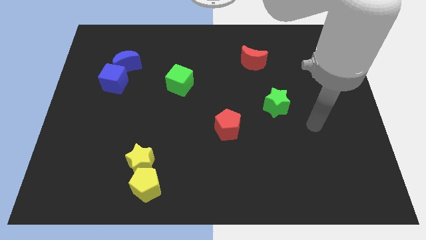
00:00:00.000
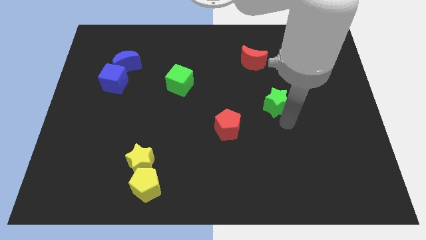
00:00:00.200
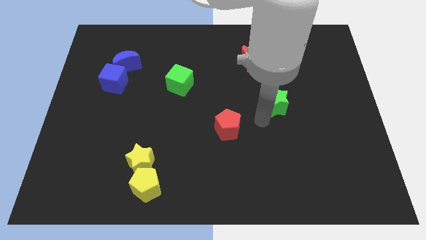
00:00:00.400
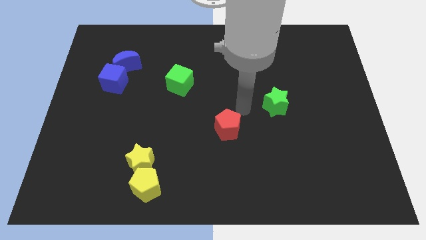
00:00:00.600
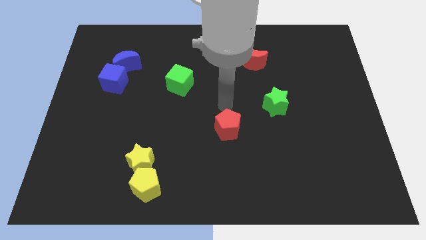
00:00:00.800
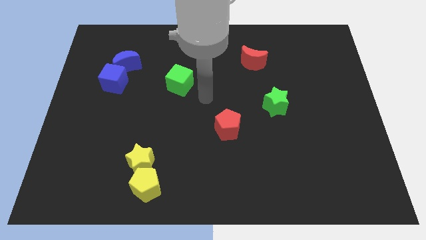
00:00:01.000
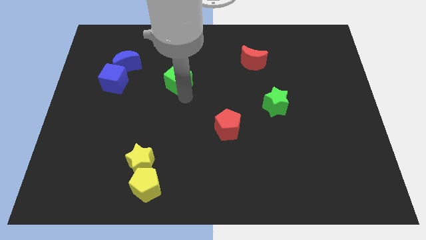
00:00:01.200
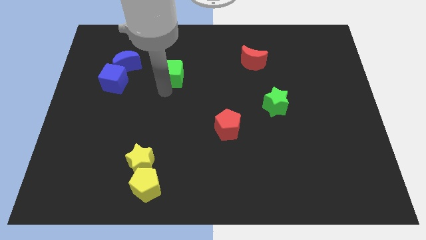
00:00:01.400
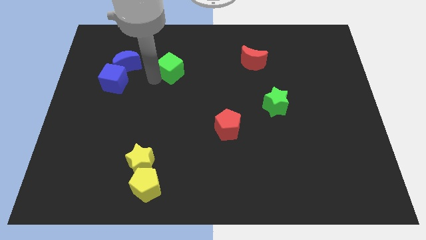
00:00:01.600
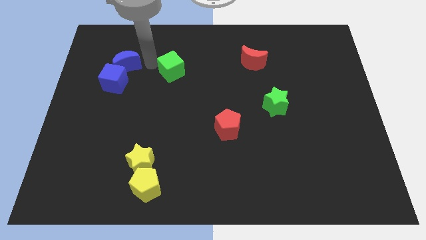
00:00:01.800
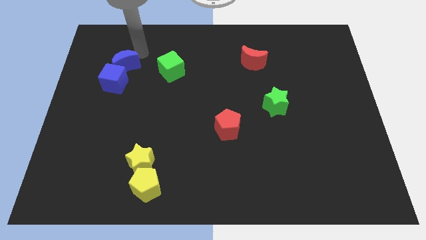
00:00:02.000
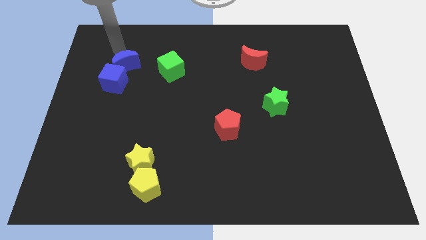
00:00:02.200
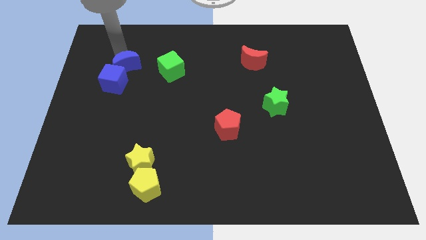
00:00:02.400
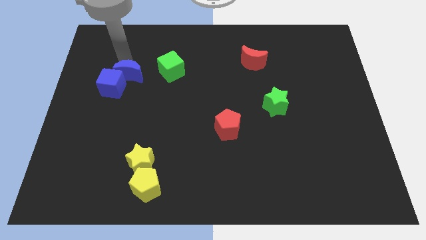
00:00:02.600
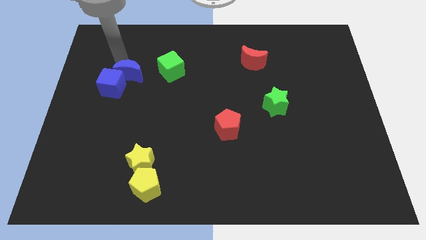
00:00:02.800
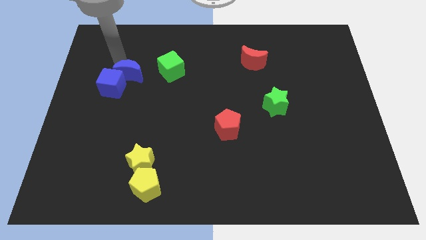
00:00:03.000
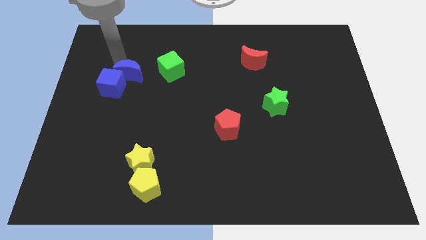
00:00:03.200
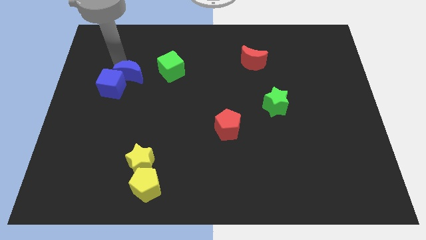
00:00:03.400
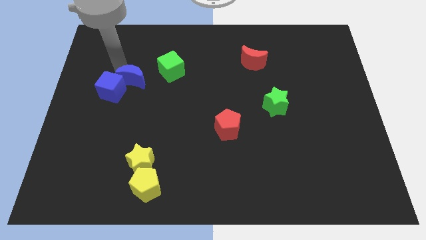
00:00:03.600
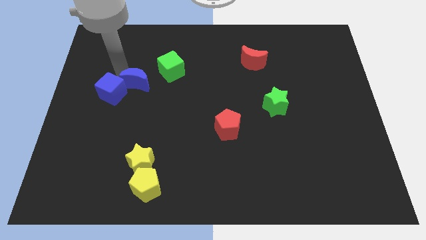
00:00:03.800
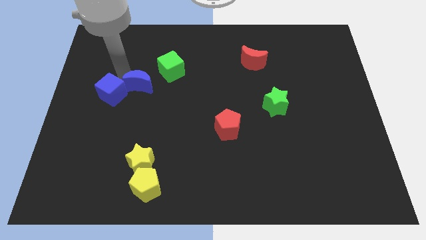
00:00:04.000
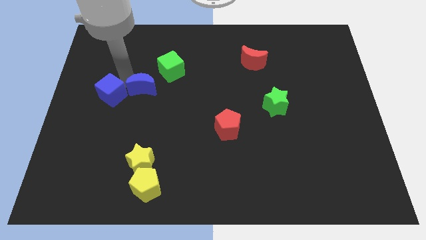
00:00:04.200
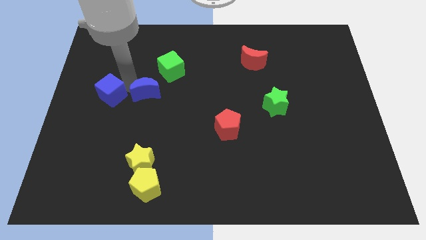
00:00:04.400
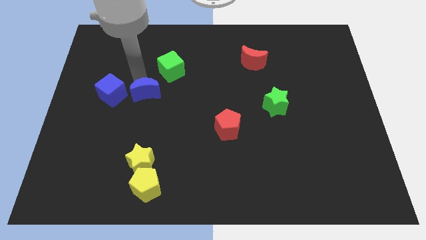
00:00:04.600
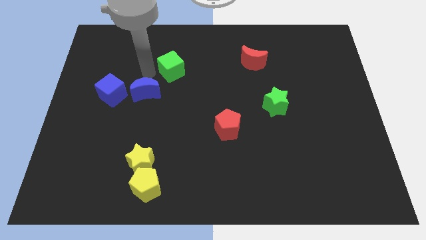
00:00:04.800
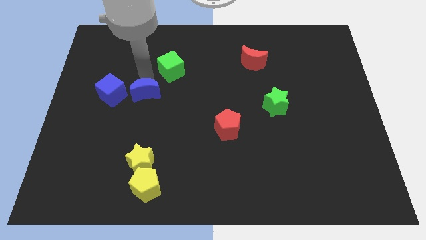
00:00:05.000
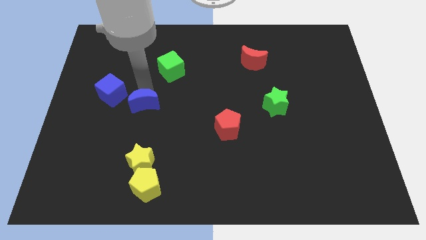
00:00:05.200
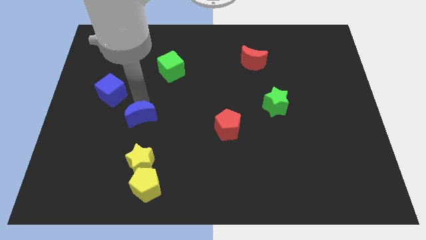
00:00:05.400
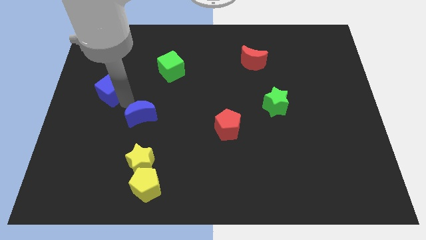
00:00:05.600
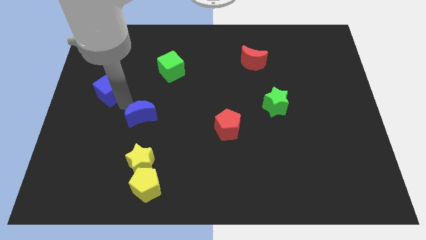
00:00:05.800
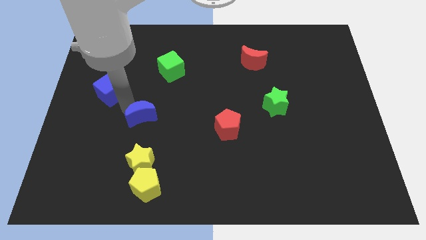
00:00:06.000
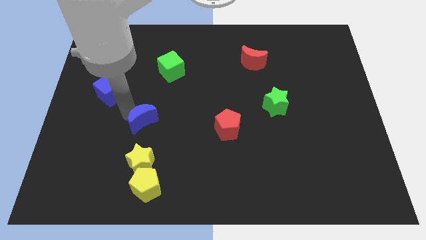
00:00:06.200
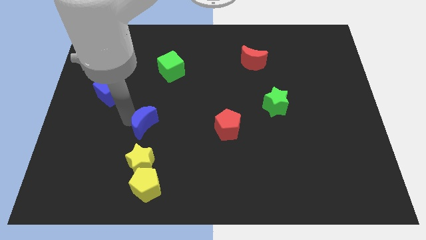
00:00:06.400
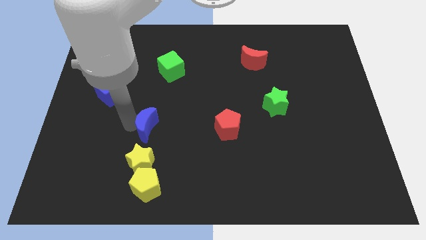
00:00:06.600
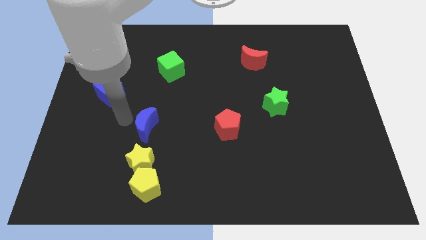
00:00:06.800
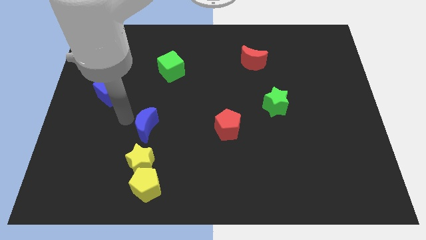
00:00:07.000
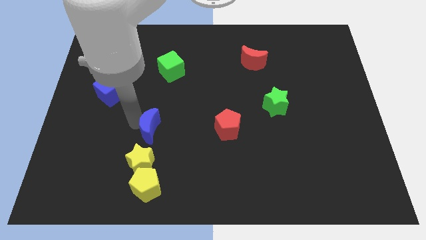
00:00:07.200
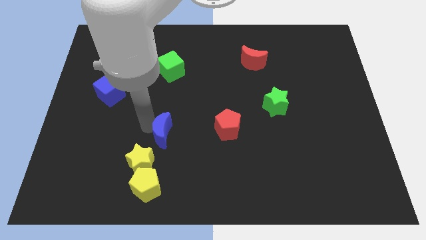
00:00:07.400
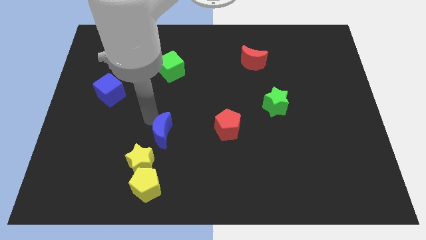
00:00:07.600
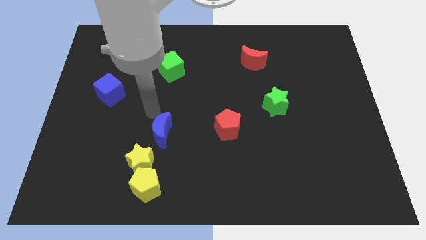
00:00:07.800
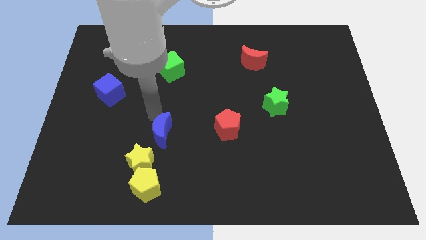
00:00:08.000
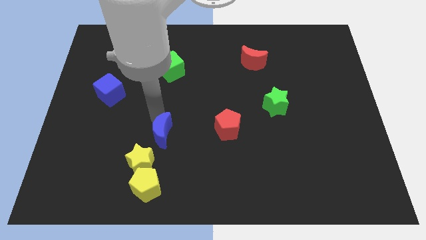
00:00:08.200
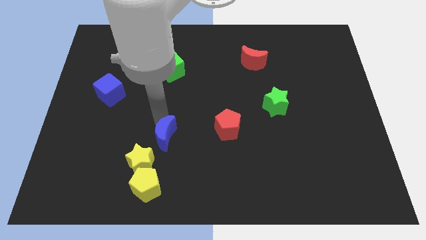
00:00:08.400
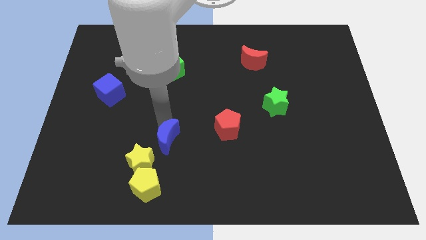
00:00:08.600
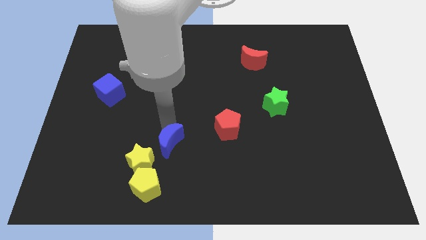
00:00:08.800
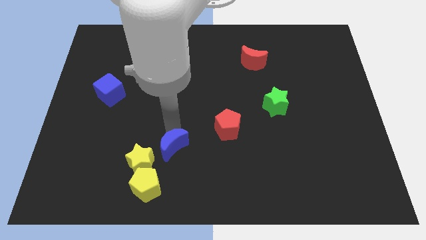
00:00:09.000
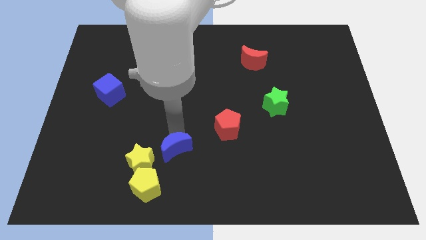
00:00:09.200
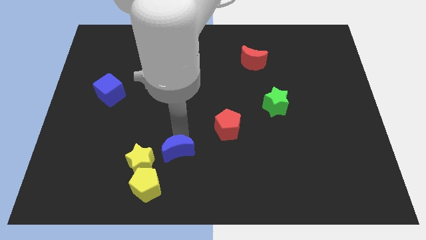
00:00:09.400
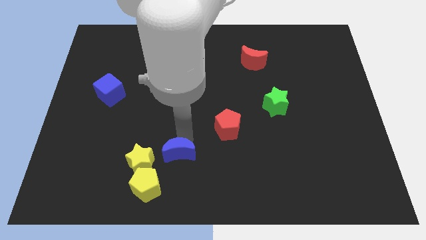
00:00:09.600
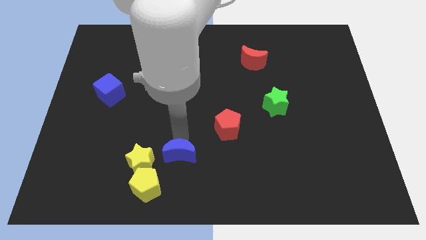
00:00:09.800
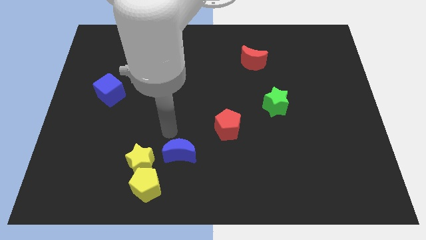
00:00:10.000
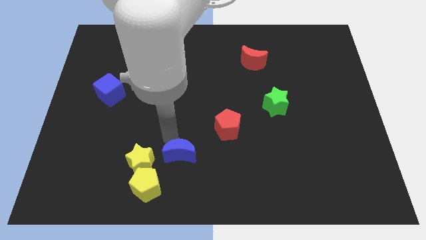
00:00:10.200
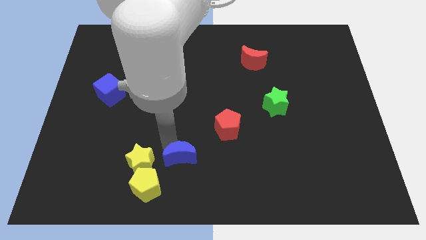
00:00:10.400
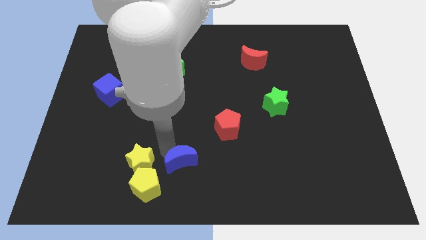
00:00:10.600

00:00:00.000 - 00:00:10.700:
put the blue moon to the bottom

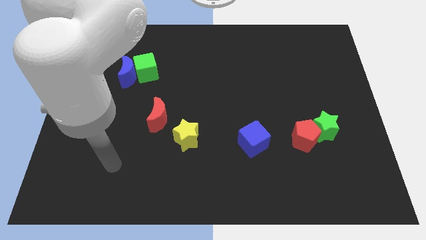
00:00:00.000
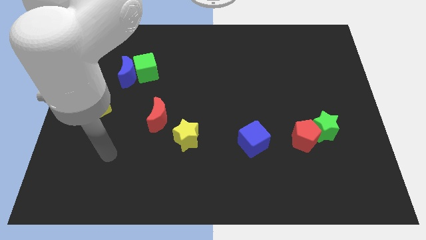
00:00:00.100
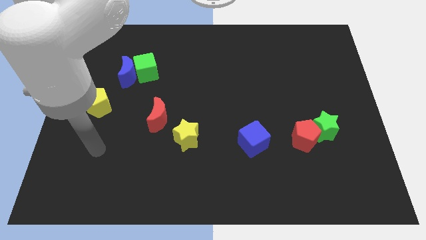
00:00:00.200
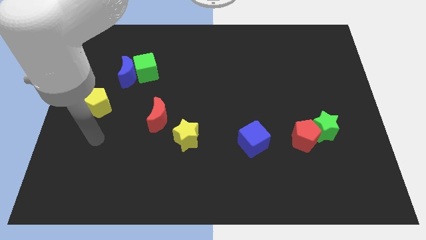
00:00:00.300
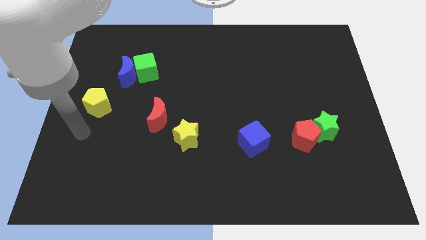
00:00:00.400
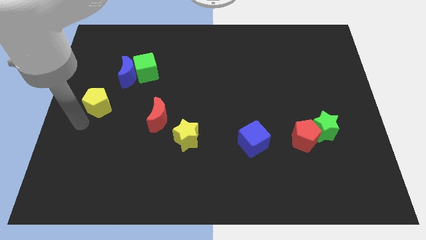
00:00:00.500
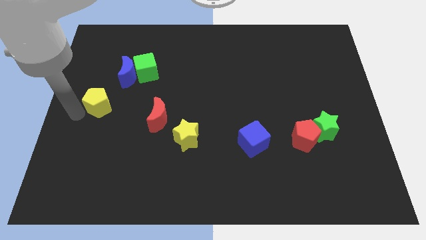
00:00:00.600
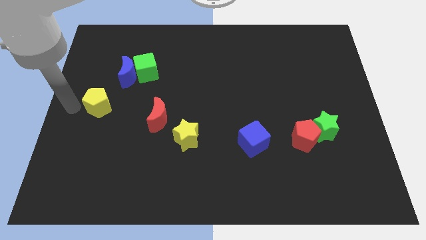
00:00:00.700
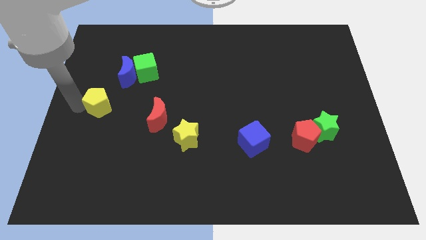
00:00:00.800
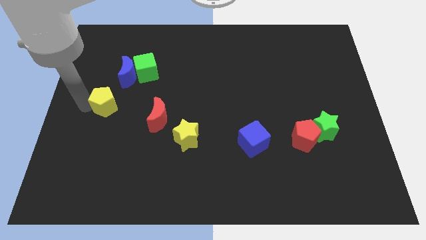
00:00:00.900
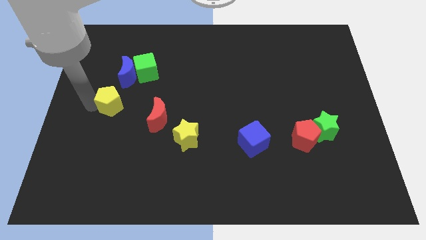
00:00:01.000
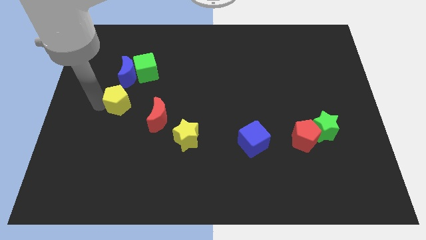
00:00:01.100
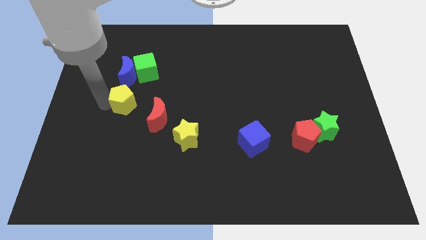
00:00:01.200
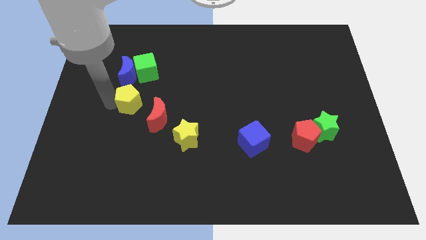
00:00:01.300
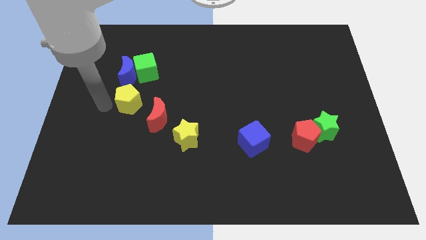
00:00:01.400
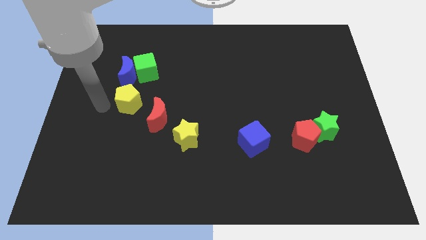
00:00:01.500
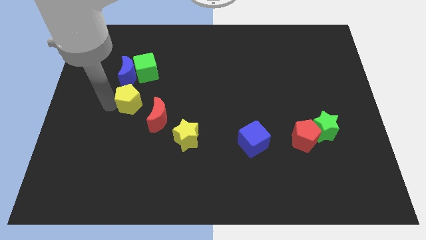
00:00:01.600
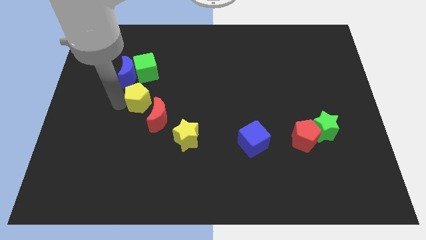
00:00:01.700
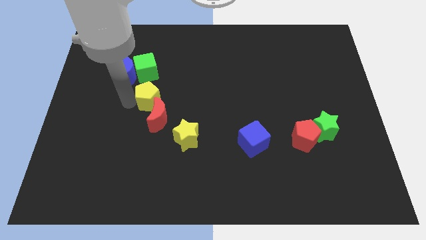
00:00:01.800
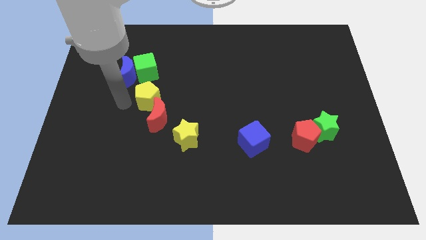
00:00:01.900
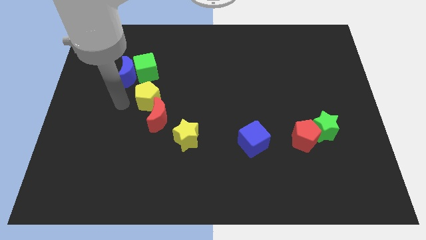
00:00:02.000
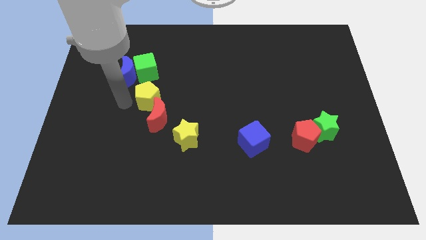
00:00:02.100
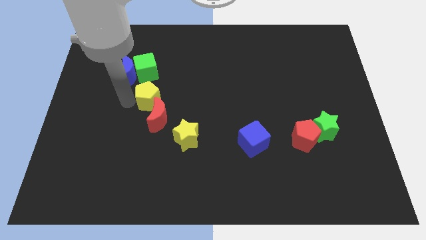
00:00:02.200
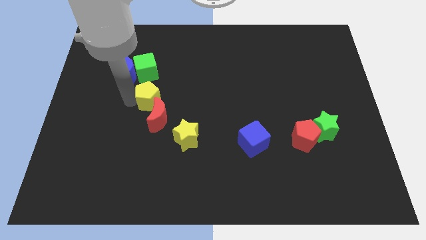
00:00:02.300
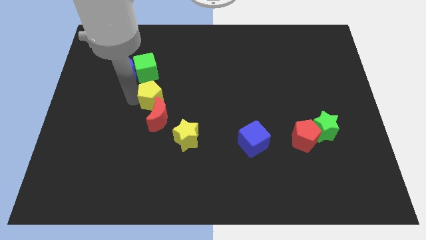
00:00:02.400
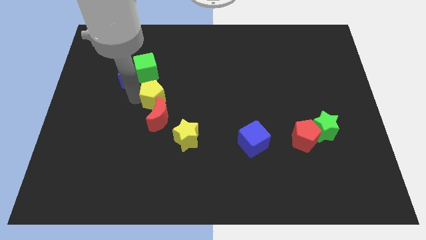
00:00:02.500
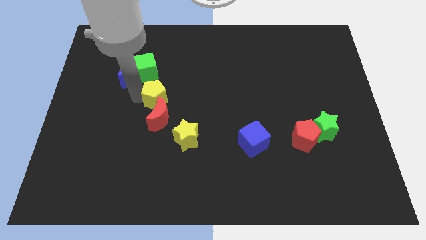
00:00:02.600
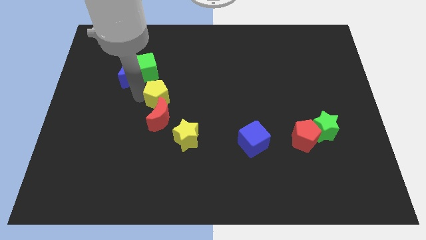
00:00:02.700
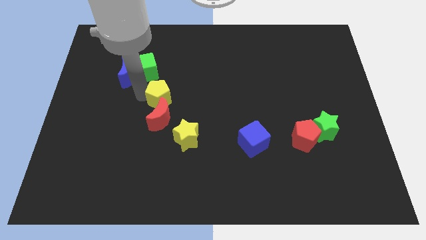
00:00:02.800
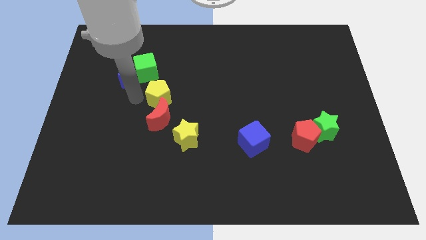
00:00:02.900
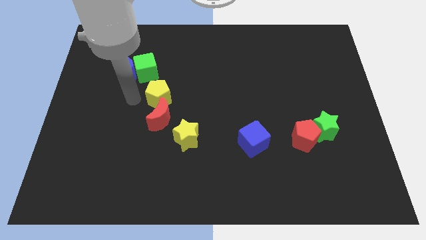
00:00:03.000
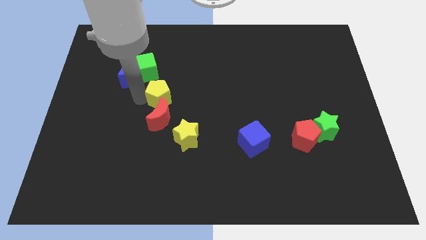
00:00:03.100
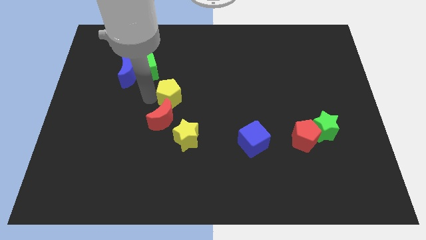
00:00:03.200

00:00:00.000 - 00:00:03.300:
put the yellow pentagon to the middle
